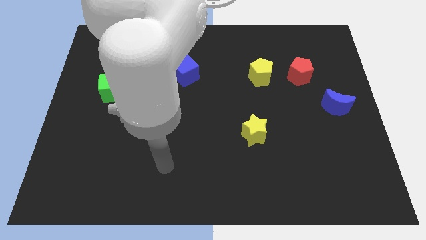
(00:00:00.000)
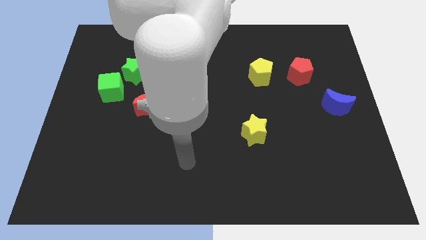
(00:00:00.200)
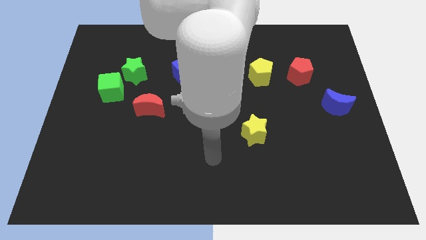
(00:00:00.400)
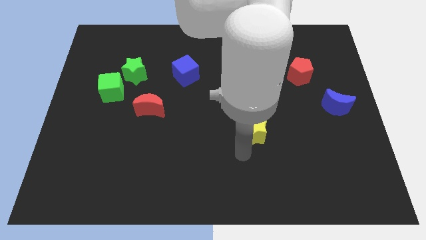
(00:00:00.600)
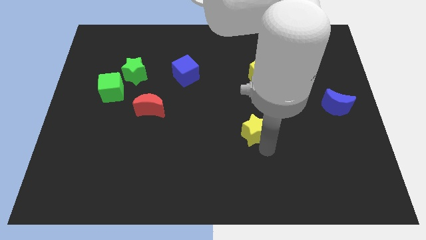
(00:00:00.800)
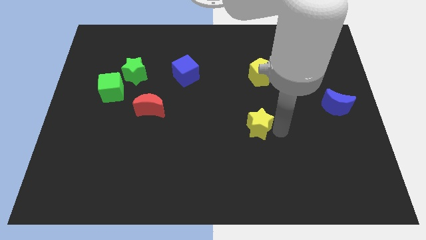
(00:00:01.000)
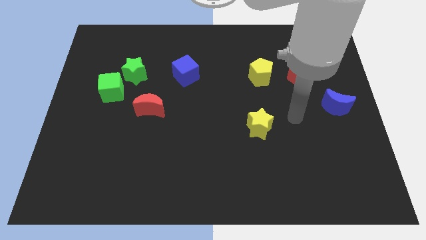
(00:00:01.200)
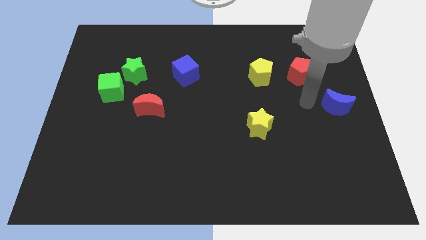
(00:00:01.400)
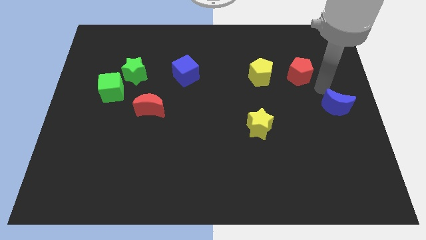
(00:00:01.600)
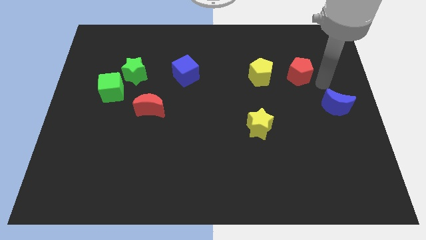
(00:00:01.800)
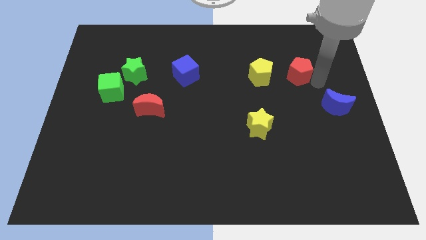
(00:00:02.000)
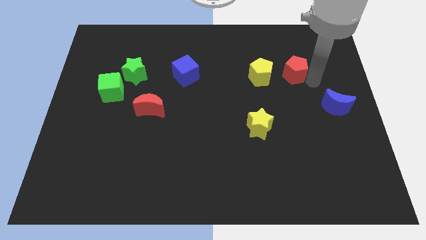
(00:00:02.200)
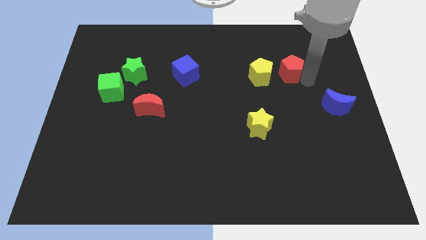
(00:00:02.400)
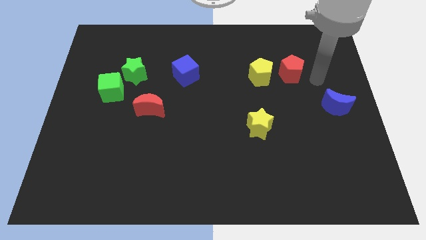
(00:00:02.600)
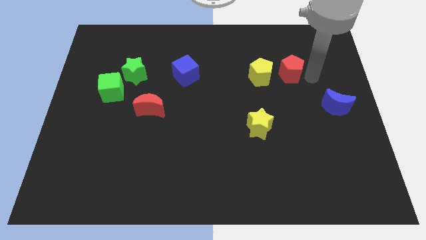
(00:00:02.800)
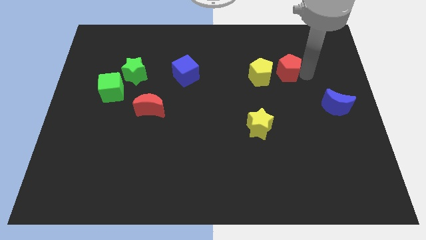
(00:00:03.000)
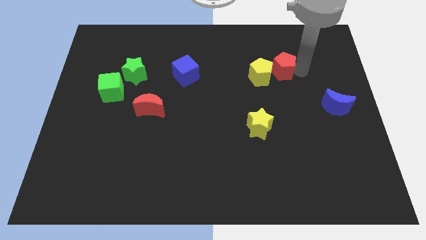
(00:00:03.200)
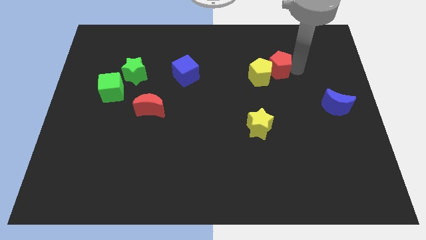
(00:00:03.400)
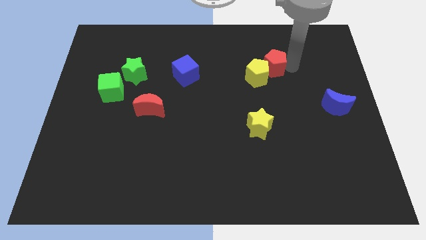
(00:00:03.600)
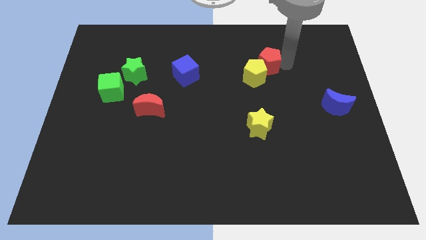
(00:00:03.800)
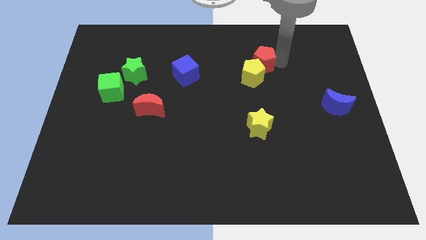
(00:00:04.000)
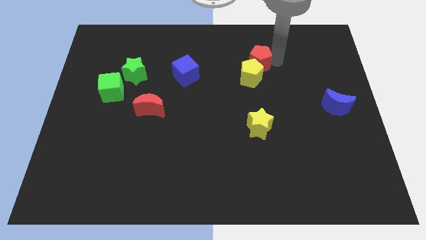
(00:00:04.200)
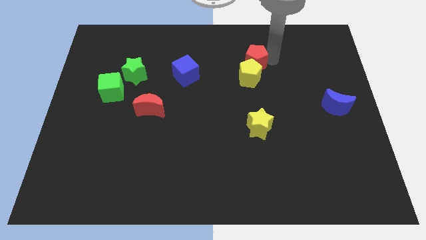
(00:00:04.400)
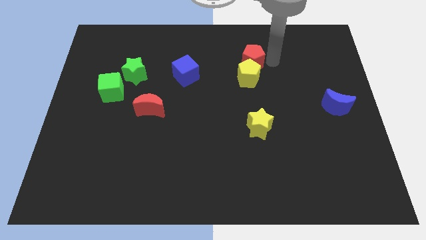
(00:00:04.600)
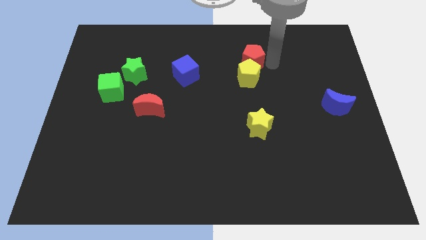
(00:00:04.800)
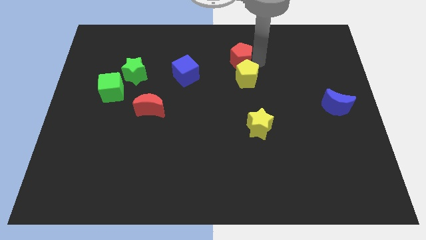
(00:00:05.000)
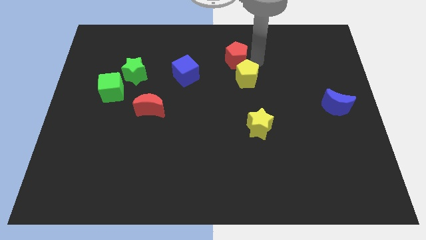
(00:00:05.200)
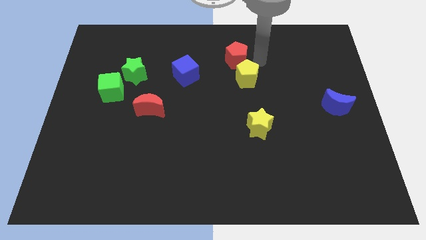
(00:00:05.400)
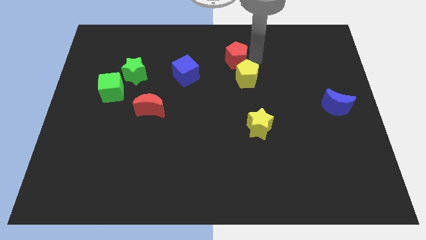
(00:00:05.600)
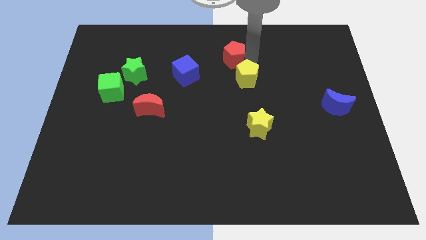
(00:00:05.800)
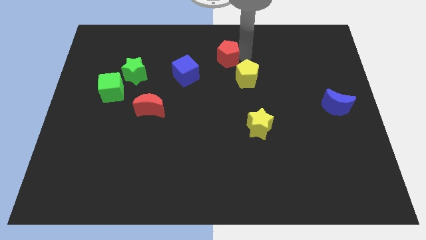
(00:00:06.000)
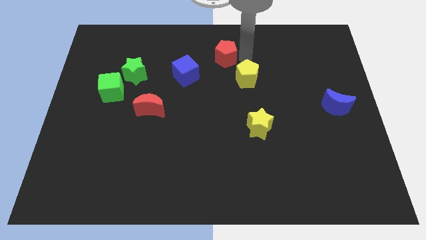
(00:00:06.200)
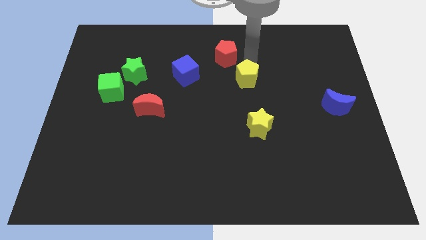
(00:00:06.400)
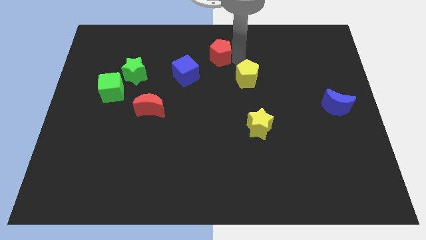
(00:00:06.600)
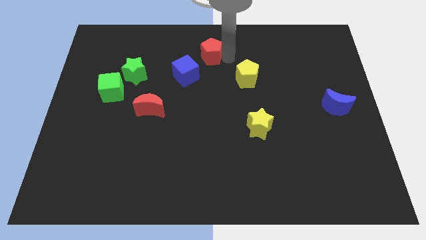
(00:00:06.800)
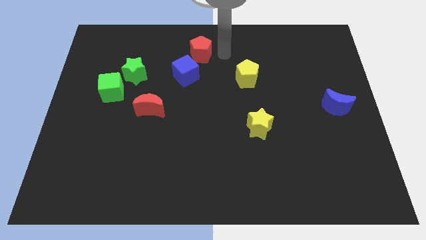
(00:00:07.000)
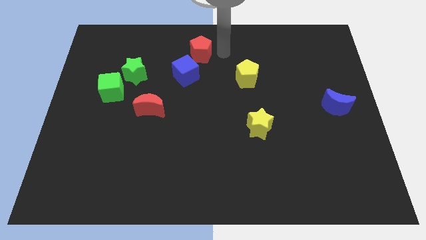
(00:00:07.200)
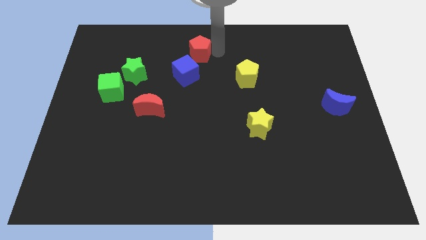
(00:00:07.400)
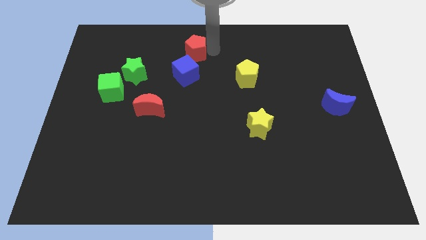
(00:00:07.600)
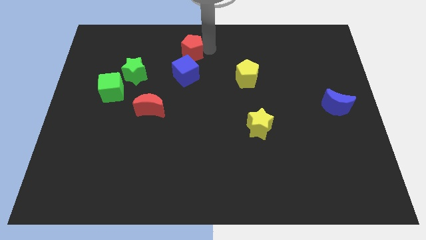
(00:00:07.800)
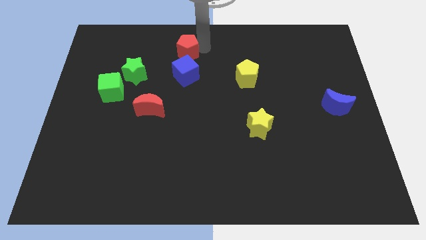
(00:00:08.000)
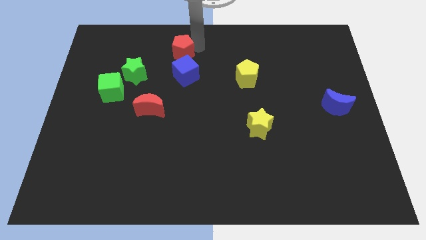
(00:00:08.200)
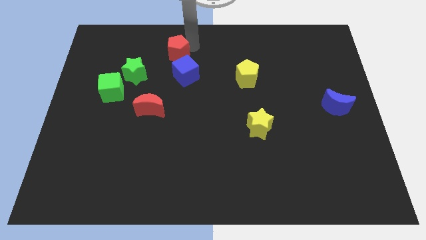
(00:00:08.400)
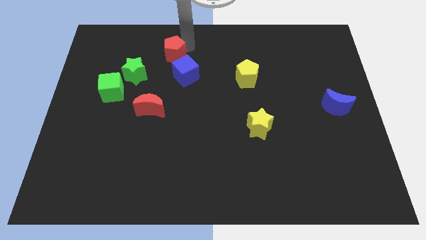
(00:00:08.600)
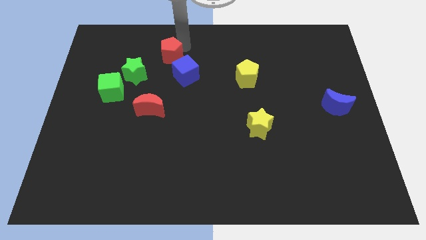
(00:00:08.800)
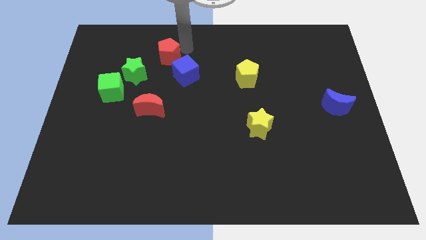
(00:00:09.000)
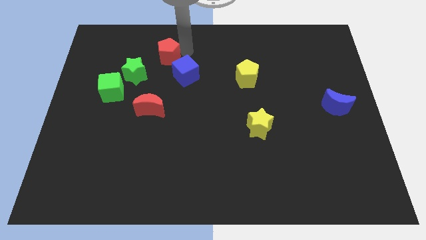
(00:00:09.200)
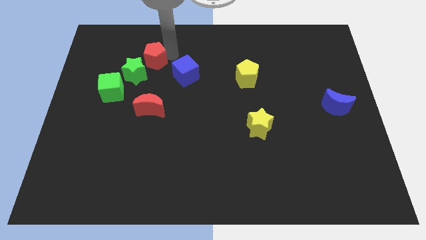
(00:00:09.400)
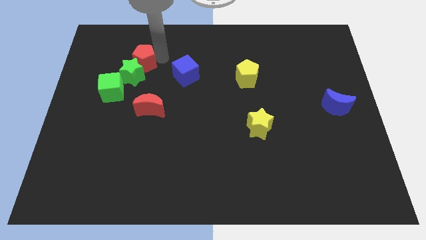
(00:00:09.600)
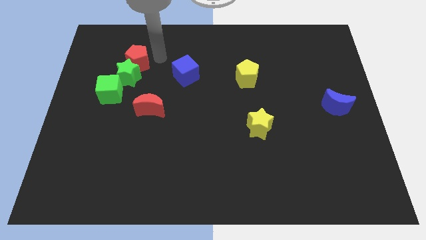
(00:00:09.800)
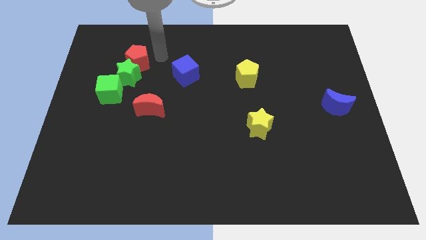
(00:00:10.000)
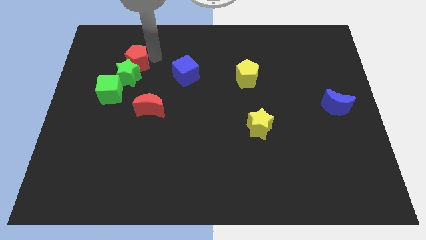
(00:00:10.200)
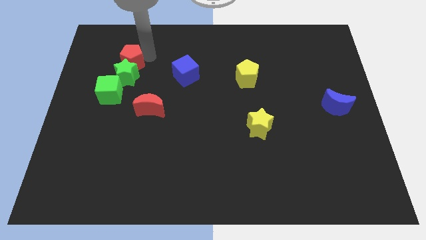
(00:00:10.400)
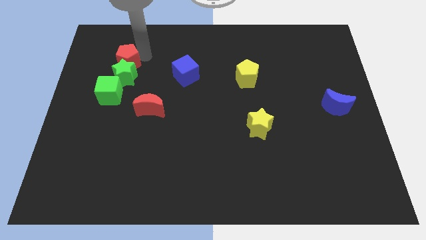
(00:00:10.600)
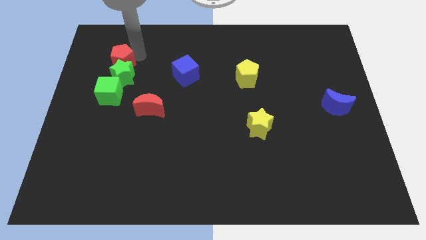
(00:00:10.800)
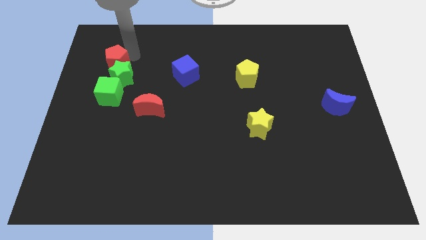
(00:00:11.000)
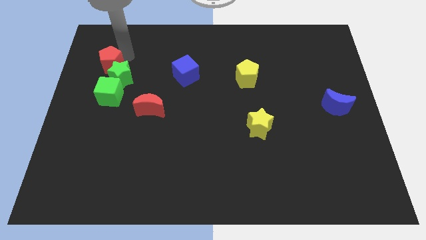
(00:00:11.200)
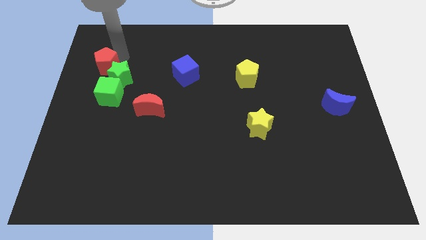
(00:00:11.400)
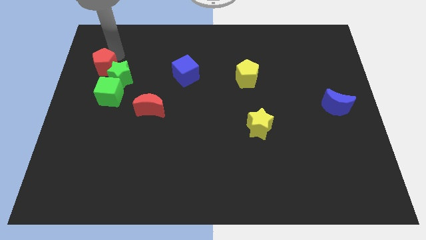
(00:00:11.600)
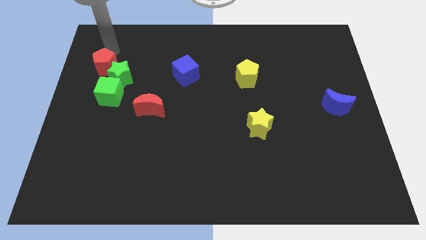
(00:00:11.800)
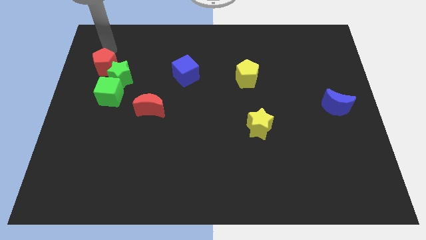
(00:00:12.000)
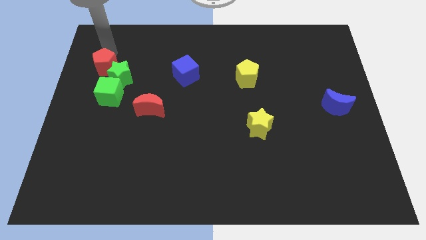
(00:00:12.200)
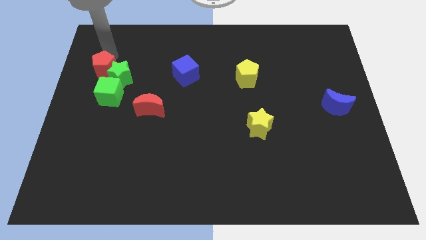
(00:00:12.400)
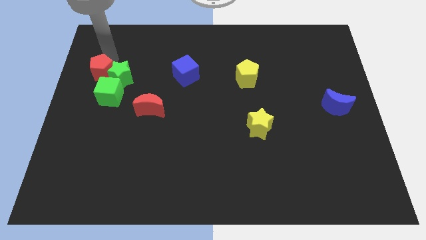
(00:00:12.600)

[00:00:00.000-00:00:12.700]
slide the red pentagon to the left side

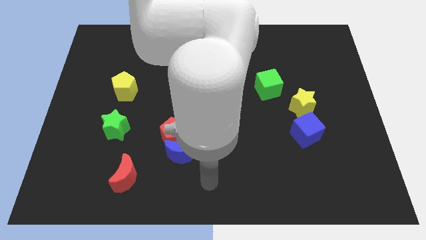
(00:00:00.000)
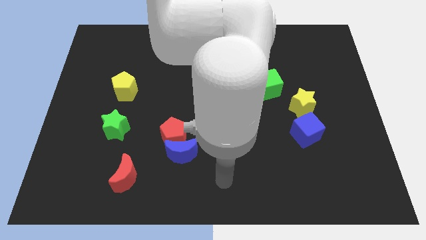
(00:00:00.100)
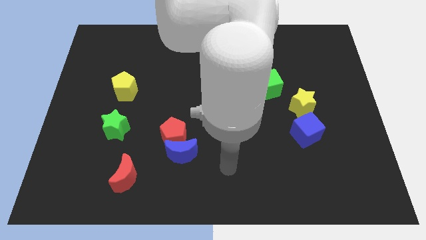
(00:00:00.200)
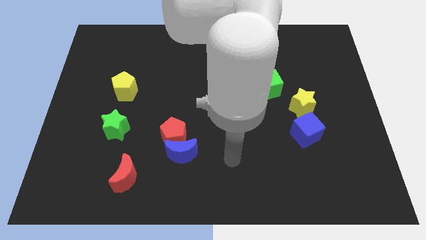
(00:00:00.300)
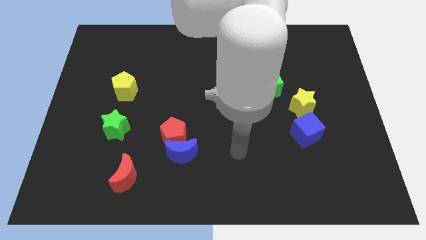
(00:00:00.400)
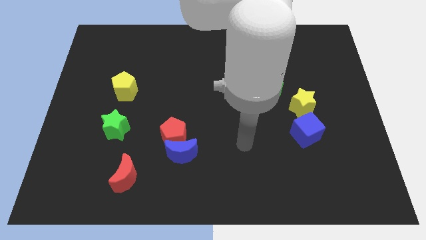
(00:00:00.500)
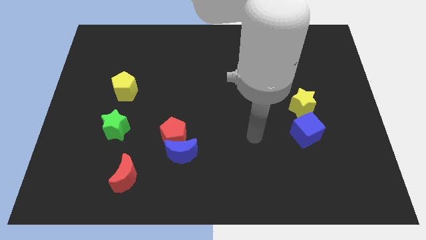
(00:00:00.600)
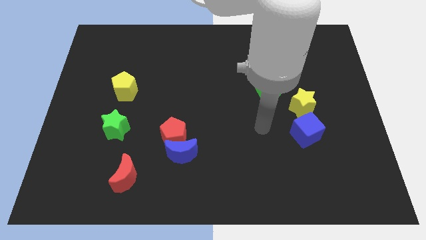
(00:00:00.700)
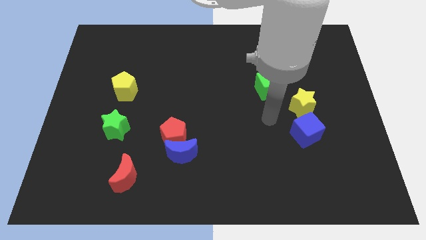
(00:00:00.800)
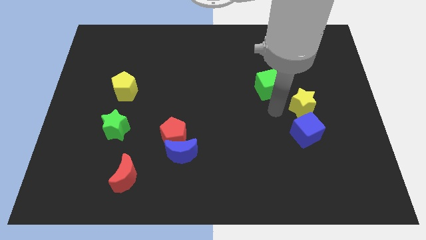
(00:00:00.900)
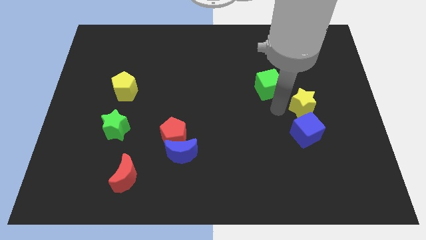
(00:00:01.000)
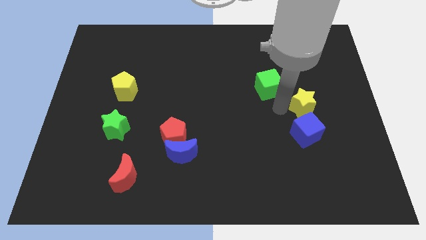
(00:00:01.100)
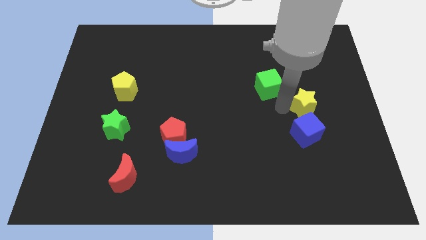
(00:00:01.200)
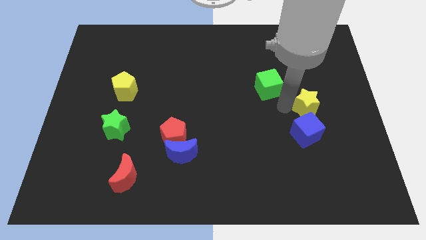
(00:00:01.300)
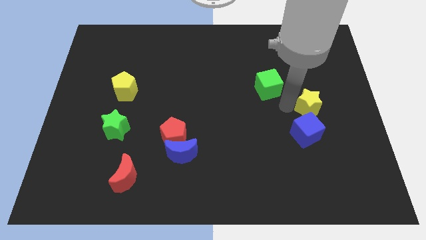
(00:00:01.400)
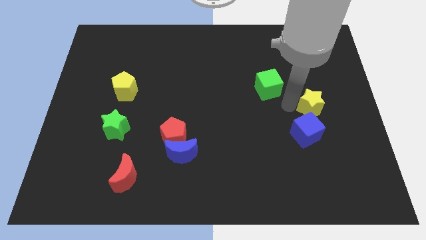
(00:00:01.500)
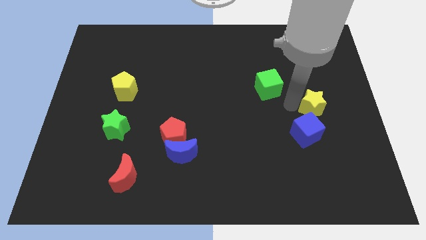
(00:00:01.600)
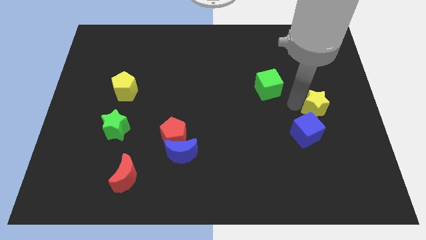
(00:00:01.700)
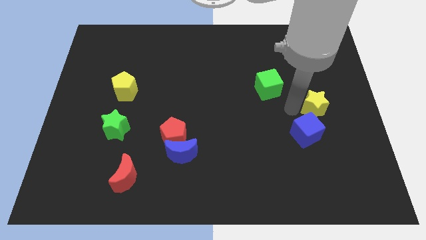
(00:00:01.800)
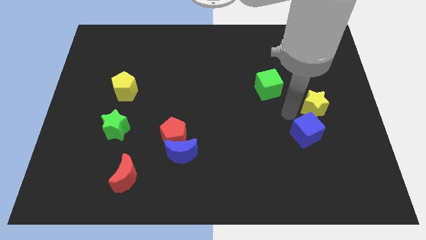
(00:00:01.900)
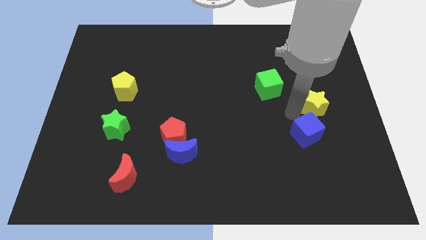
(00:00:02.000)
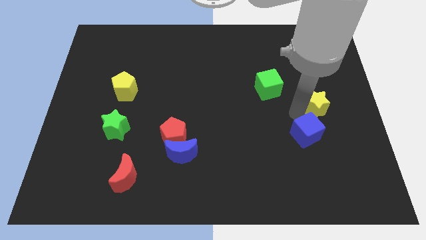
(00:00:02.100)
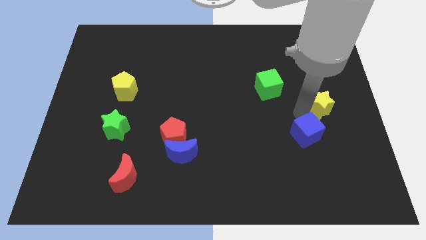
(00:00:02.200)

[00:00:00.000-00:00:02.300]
push the yellow star to the right side of the board
